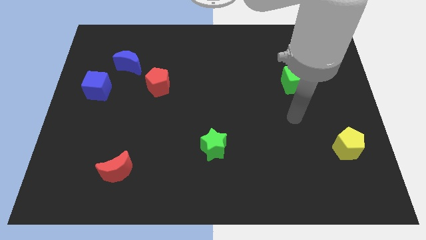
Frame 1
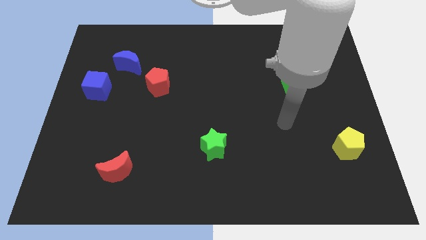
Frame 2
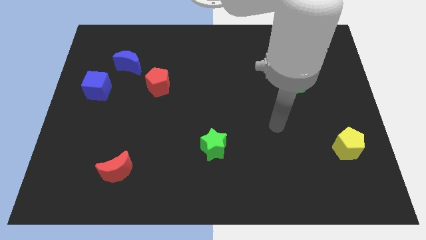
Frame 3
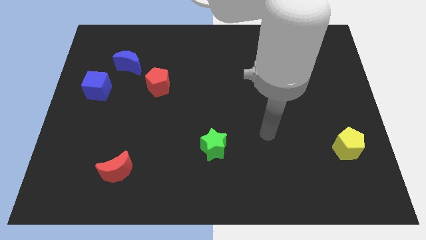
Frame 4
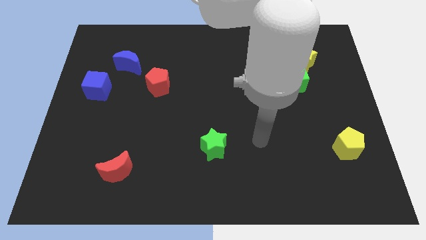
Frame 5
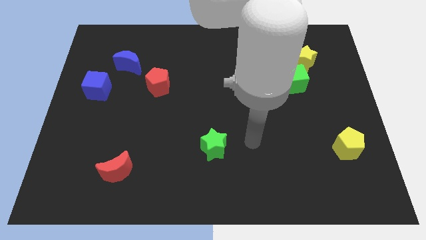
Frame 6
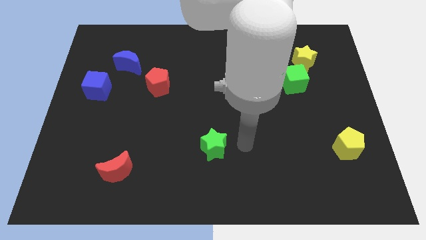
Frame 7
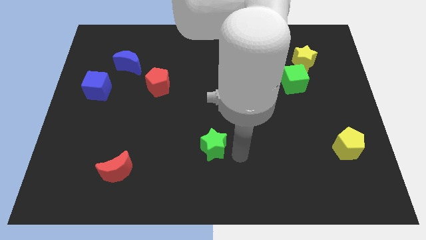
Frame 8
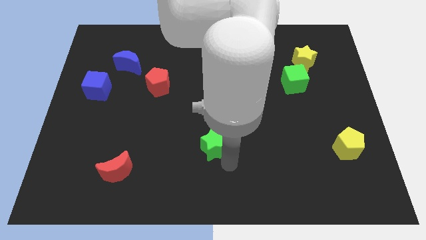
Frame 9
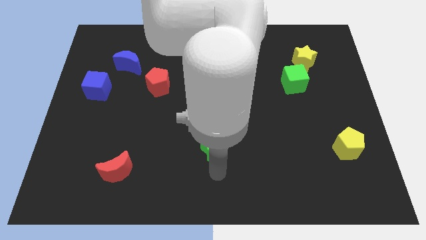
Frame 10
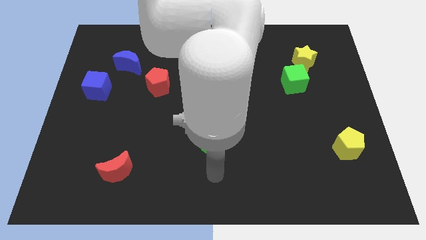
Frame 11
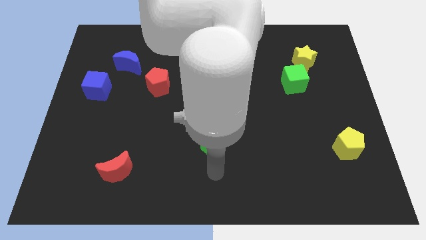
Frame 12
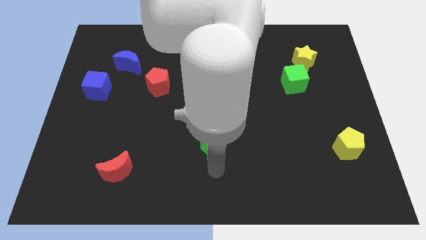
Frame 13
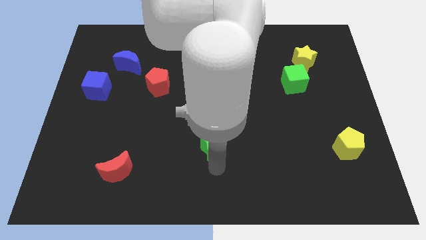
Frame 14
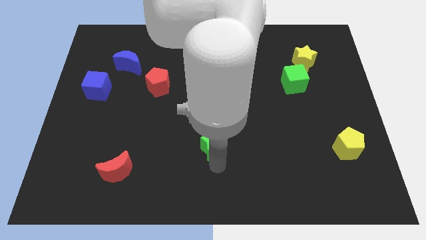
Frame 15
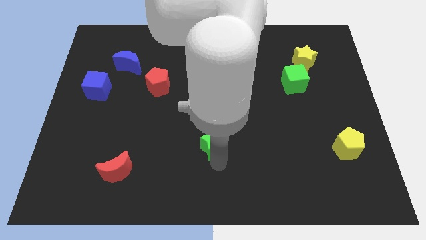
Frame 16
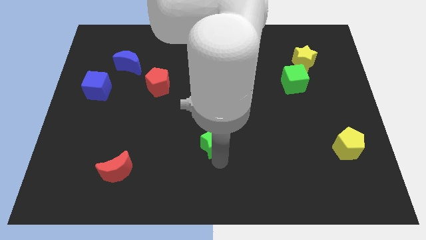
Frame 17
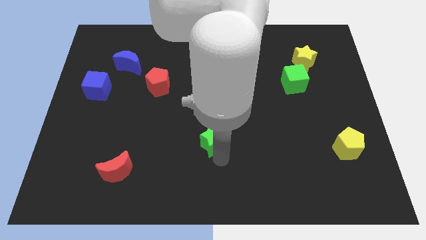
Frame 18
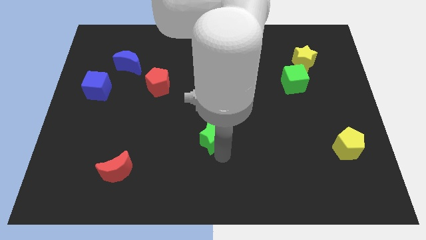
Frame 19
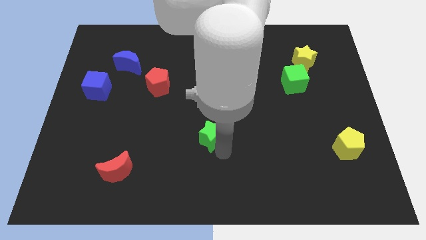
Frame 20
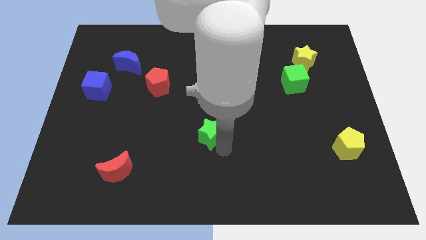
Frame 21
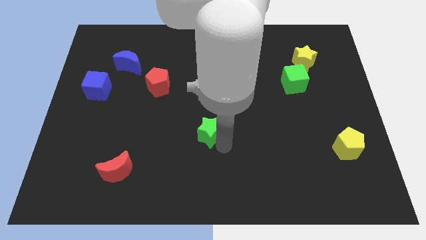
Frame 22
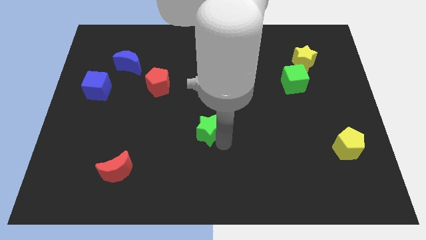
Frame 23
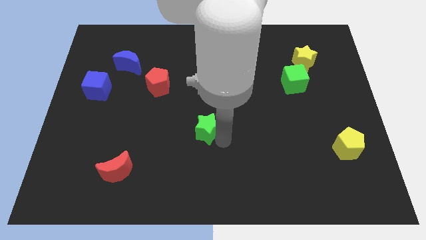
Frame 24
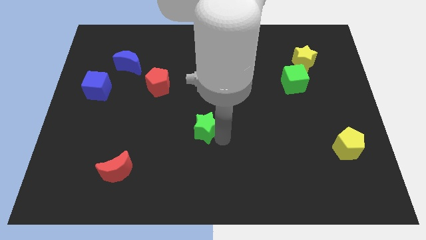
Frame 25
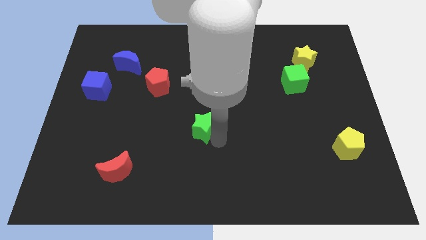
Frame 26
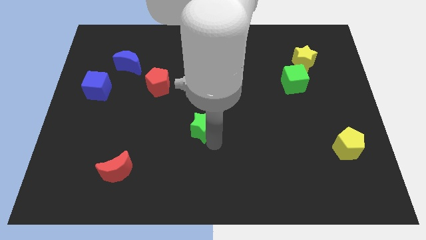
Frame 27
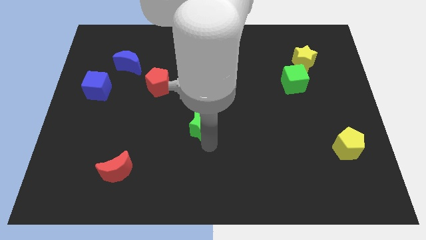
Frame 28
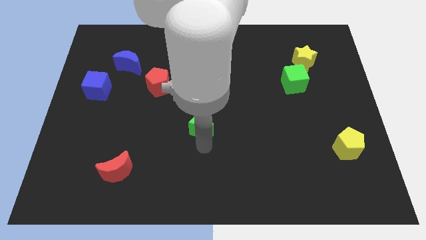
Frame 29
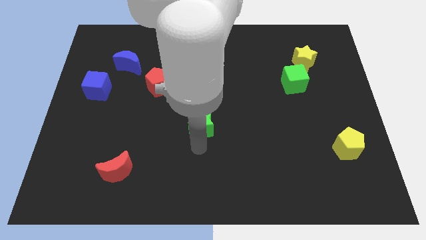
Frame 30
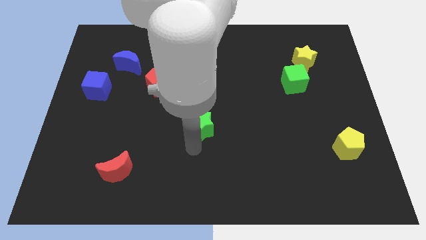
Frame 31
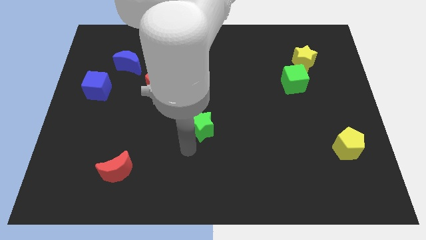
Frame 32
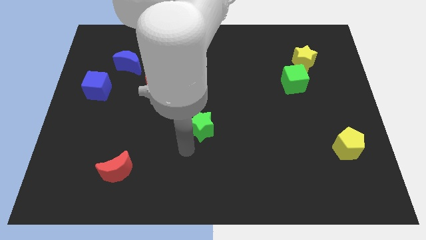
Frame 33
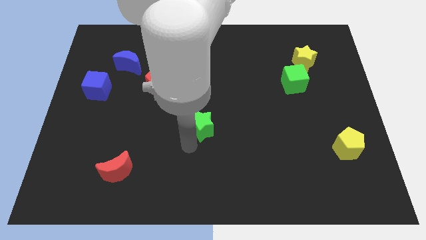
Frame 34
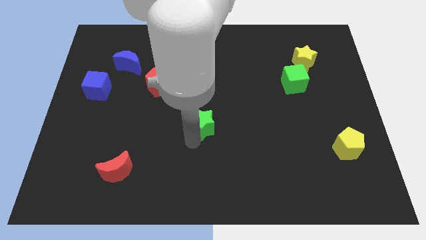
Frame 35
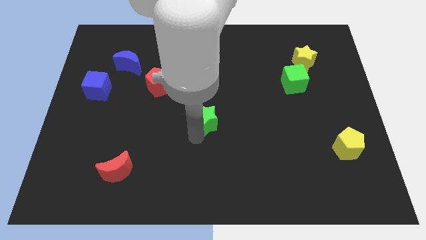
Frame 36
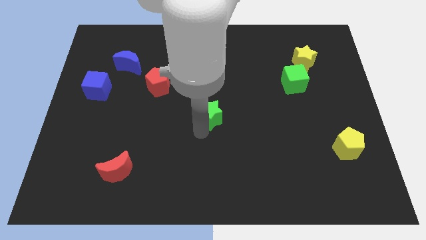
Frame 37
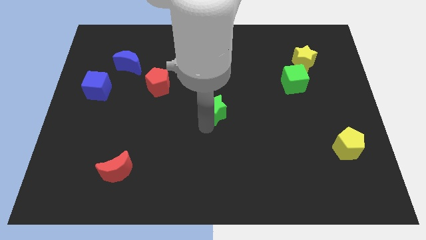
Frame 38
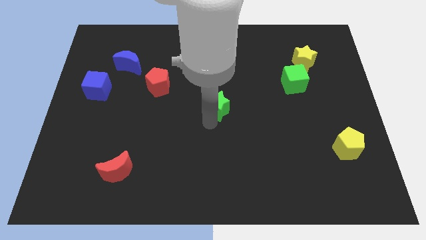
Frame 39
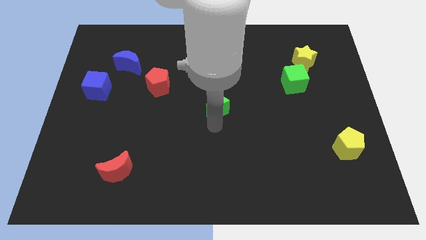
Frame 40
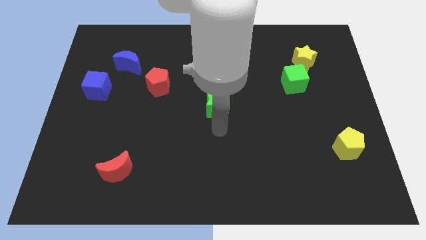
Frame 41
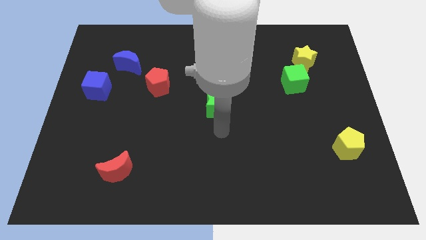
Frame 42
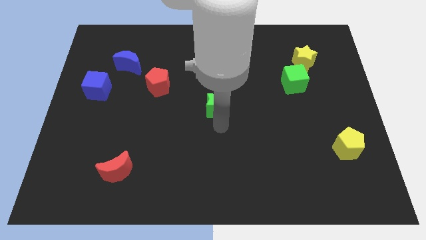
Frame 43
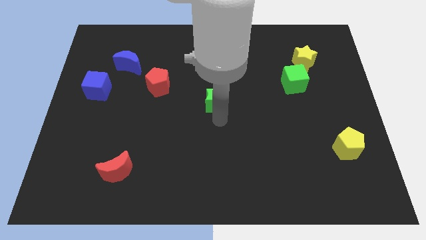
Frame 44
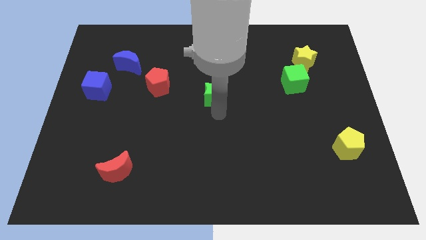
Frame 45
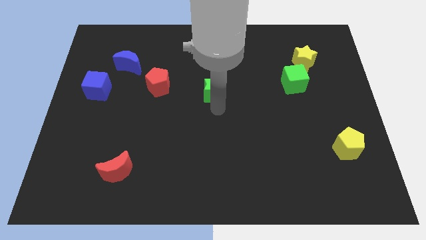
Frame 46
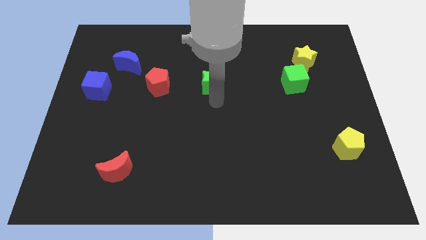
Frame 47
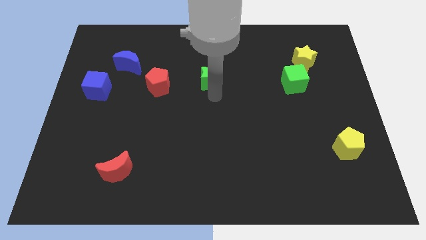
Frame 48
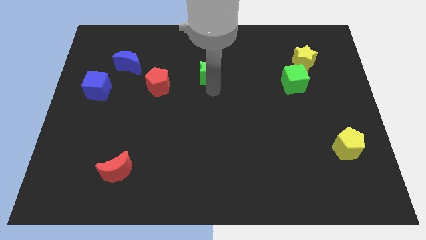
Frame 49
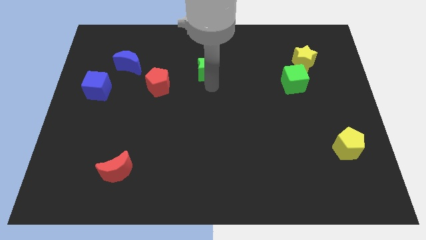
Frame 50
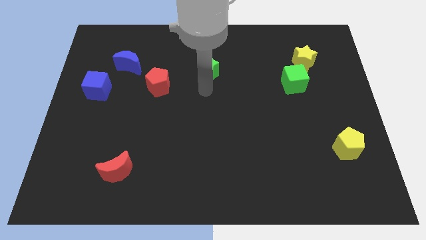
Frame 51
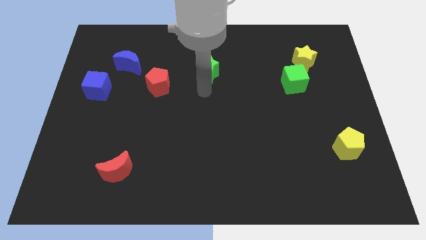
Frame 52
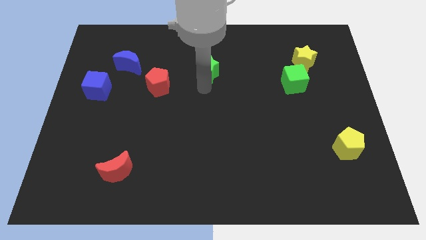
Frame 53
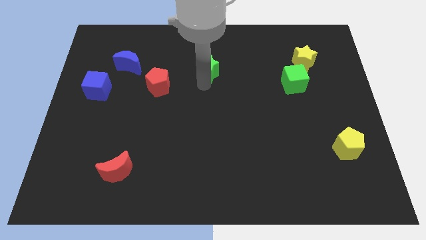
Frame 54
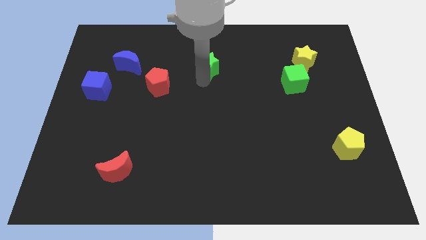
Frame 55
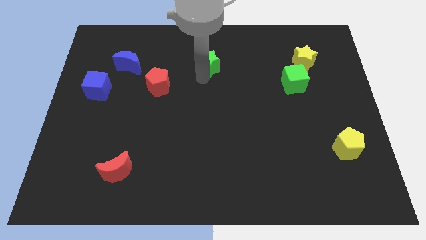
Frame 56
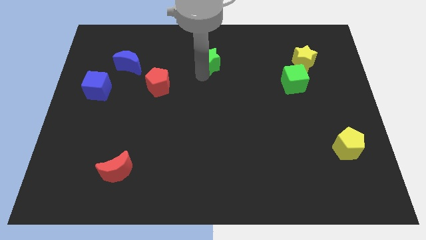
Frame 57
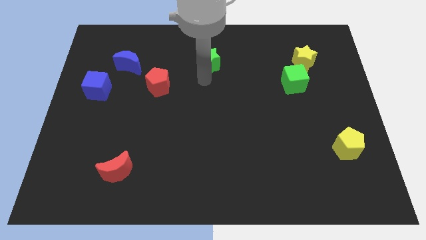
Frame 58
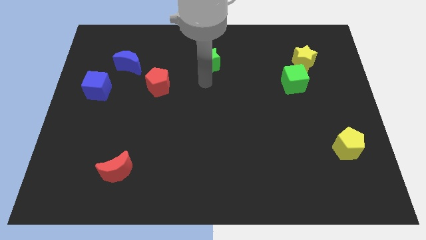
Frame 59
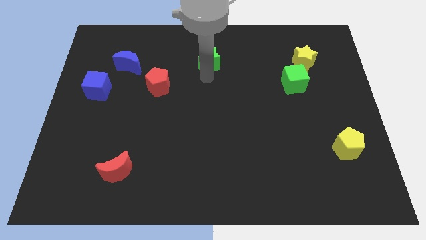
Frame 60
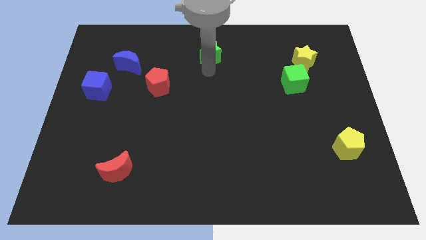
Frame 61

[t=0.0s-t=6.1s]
push the green star to the top side
